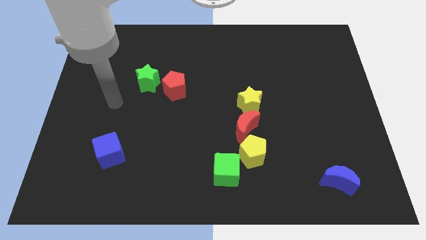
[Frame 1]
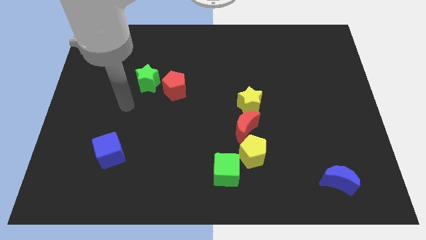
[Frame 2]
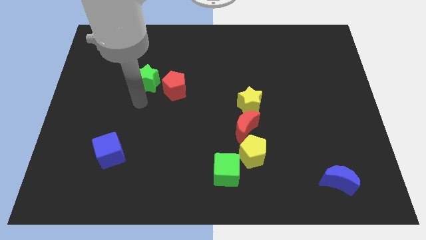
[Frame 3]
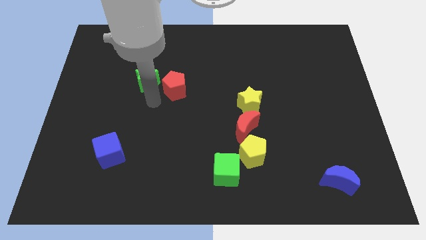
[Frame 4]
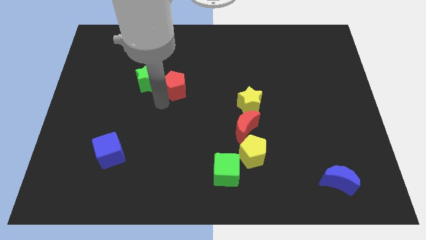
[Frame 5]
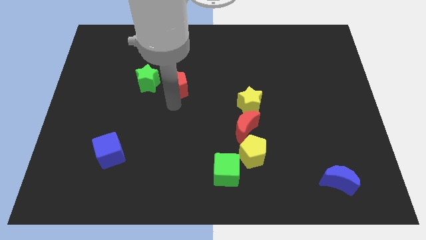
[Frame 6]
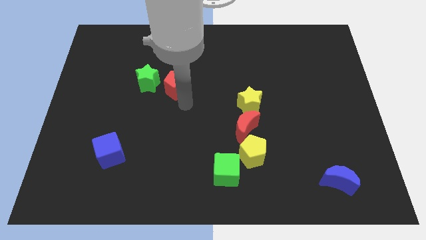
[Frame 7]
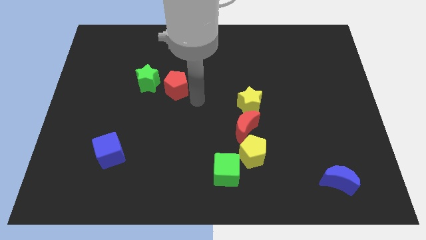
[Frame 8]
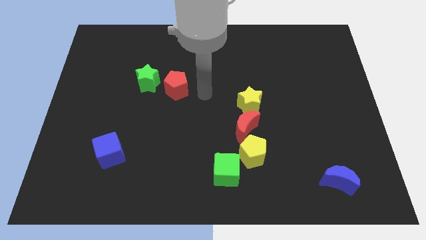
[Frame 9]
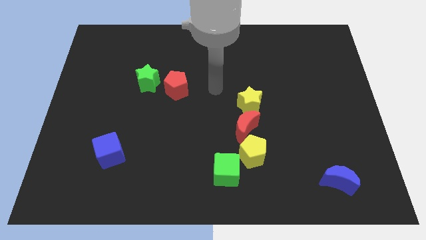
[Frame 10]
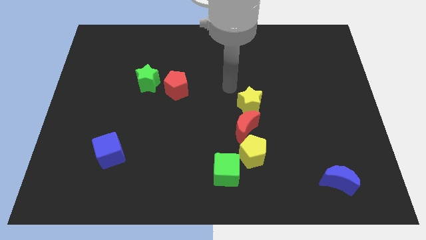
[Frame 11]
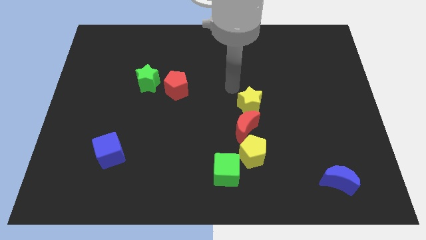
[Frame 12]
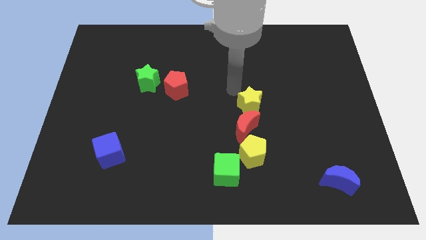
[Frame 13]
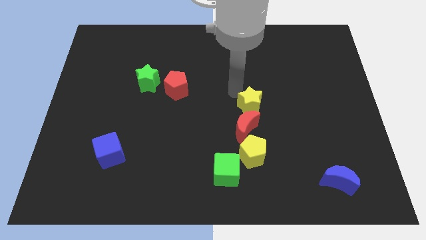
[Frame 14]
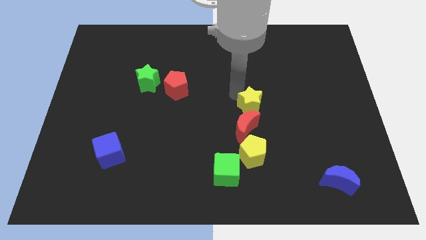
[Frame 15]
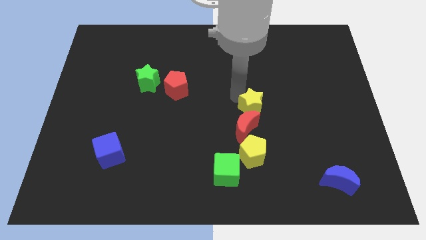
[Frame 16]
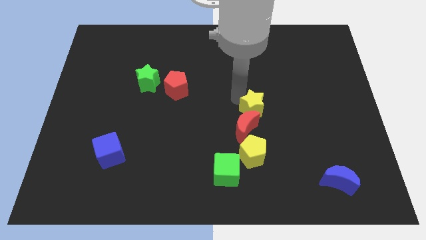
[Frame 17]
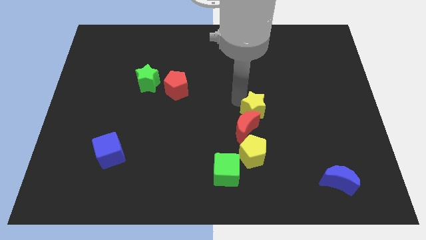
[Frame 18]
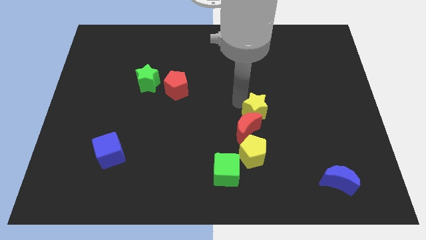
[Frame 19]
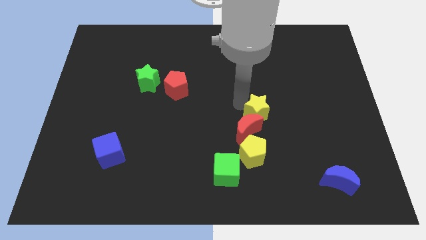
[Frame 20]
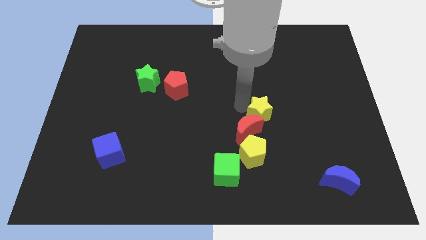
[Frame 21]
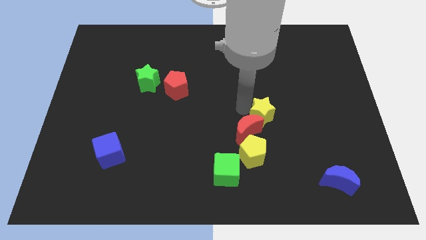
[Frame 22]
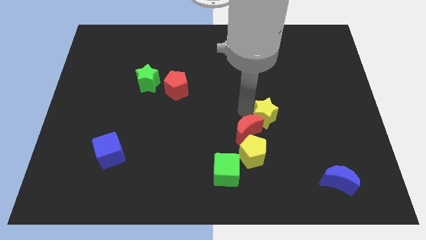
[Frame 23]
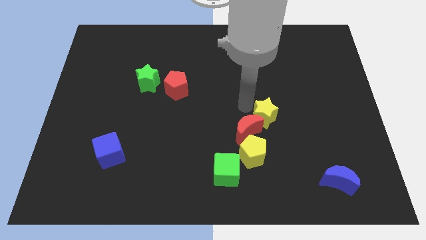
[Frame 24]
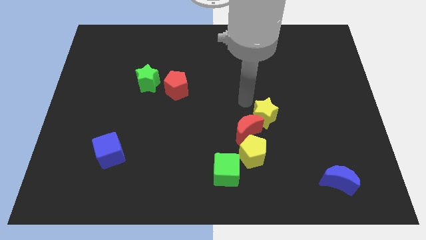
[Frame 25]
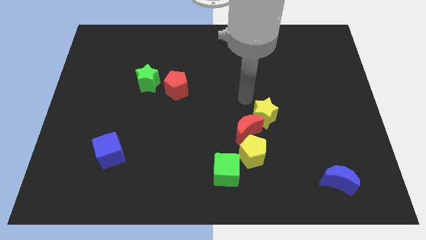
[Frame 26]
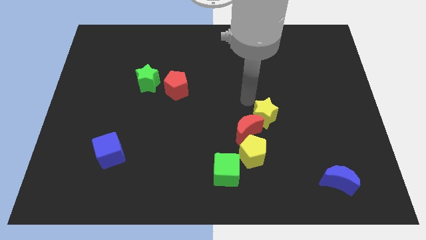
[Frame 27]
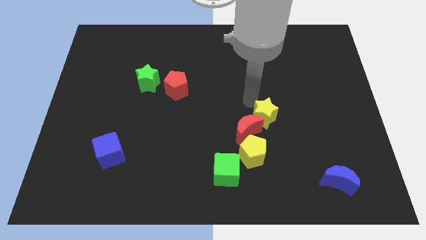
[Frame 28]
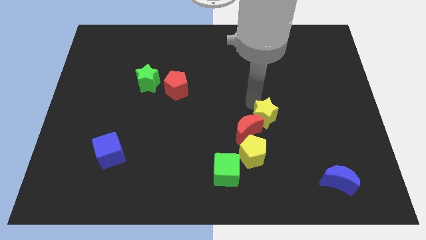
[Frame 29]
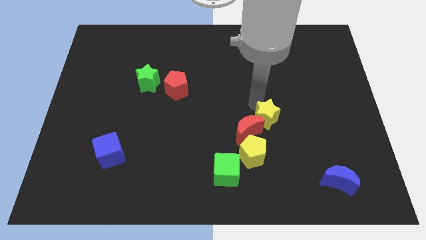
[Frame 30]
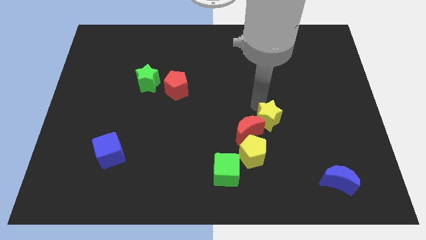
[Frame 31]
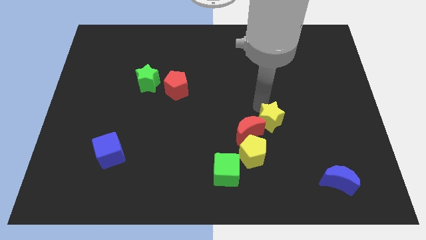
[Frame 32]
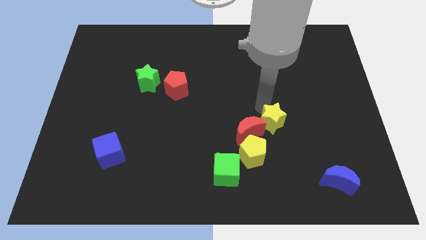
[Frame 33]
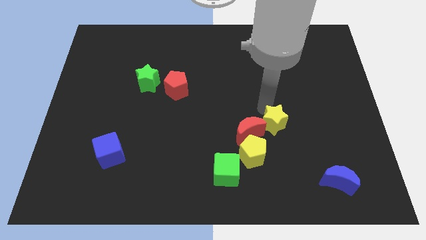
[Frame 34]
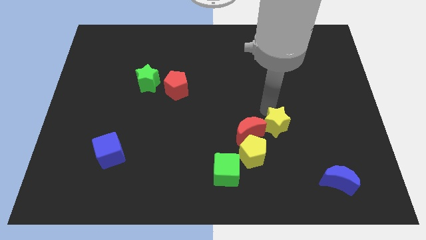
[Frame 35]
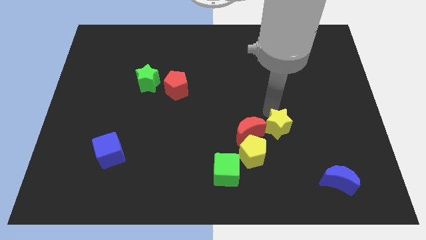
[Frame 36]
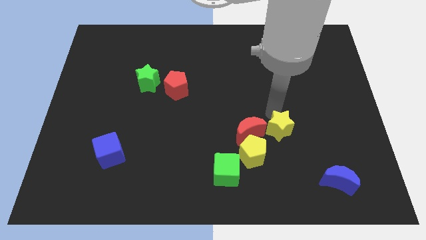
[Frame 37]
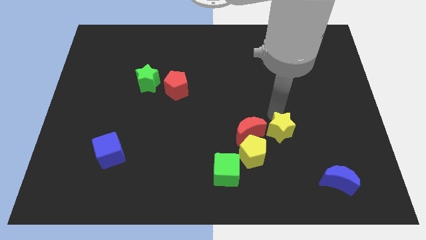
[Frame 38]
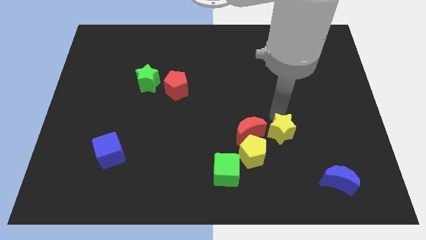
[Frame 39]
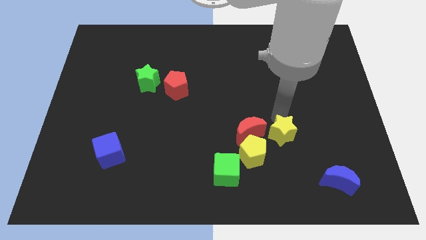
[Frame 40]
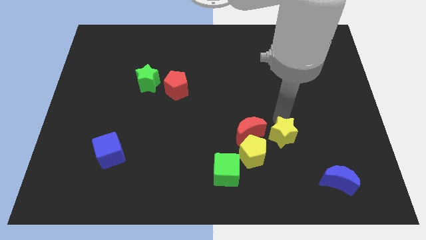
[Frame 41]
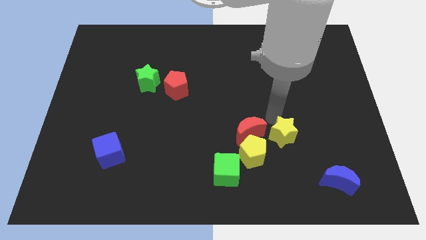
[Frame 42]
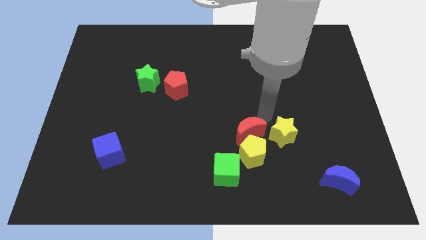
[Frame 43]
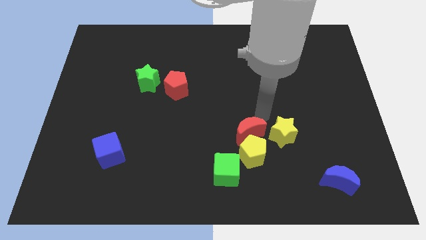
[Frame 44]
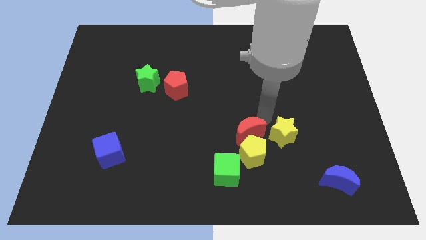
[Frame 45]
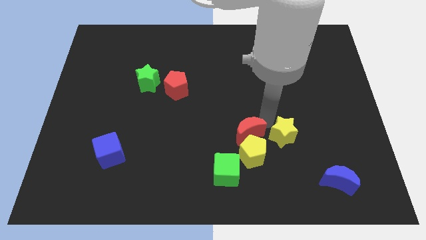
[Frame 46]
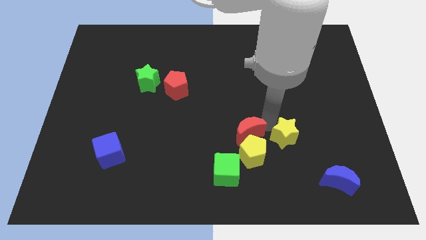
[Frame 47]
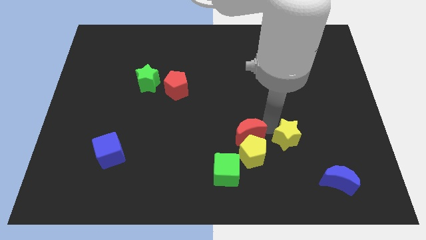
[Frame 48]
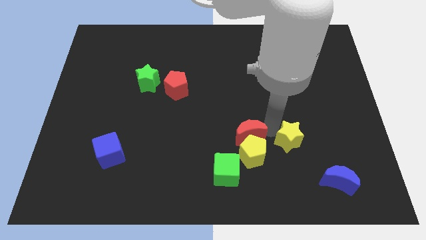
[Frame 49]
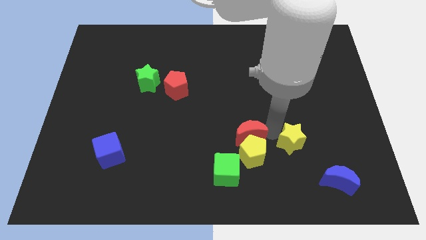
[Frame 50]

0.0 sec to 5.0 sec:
move the yellow star to the top left side of the blue moon

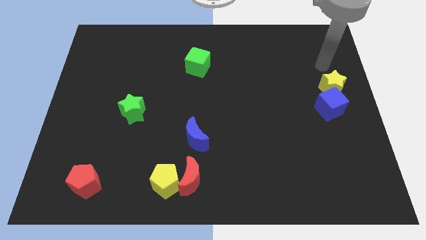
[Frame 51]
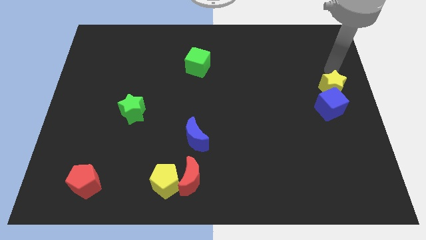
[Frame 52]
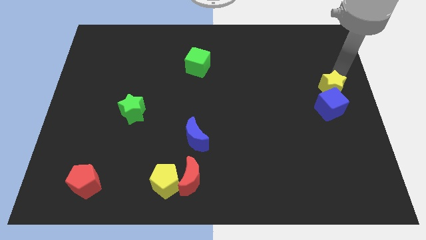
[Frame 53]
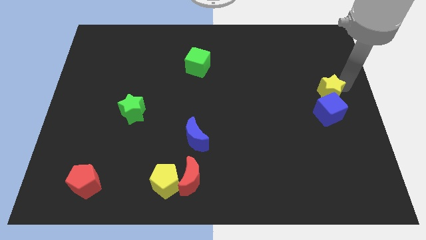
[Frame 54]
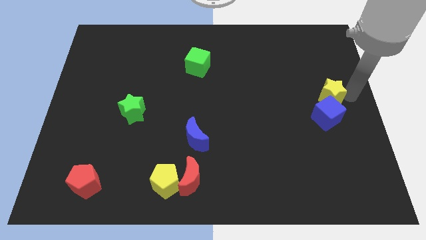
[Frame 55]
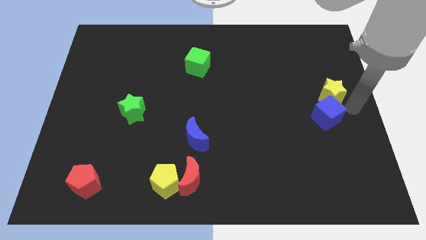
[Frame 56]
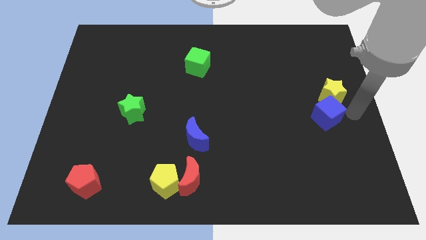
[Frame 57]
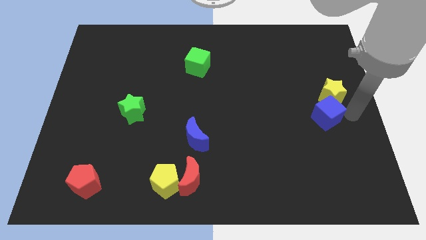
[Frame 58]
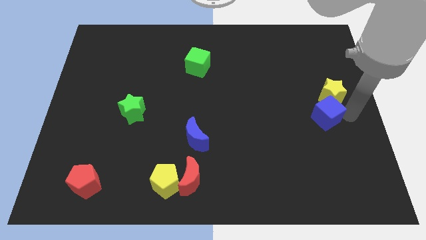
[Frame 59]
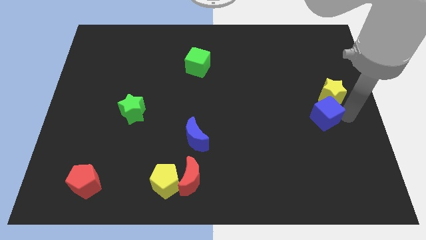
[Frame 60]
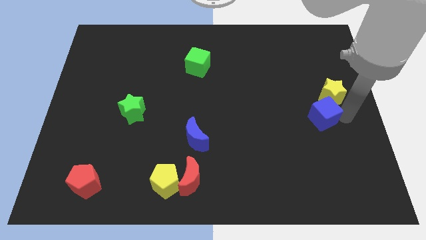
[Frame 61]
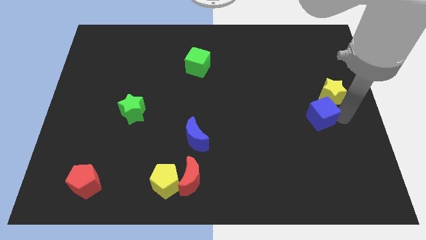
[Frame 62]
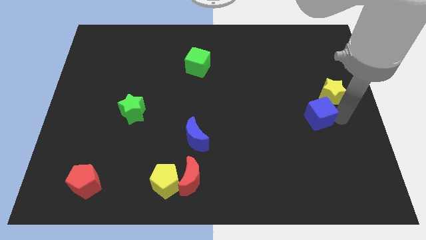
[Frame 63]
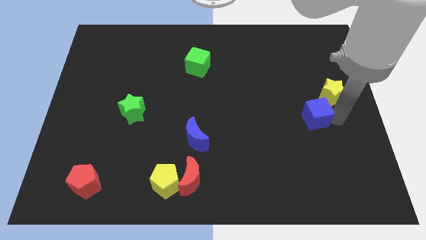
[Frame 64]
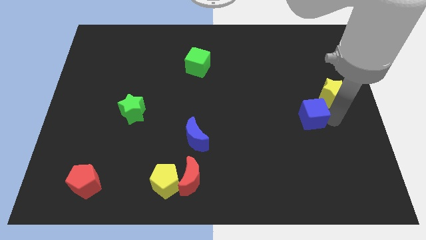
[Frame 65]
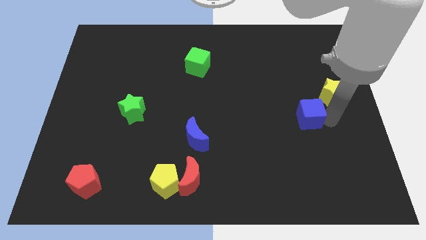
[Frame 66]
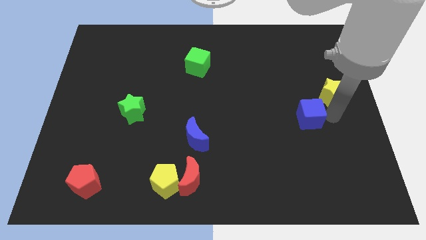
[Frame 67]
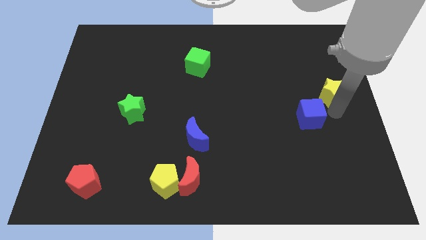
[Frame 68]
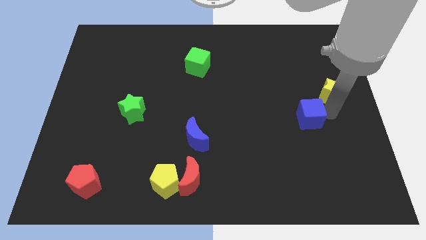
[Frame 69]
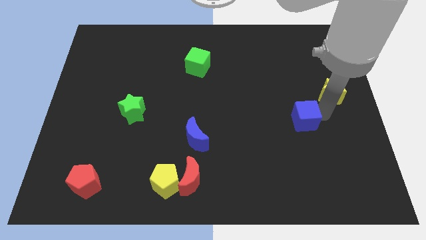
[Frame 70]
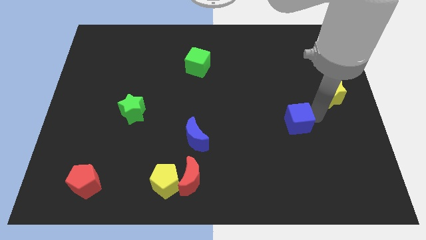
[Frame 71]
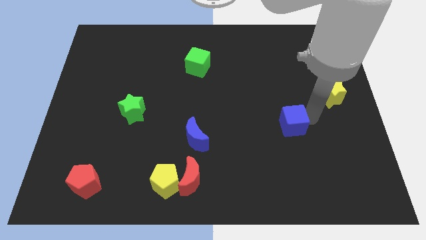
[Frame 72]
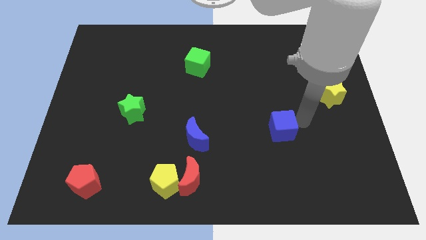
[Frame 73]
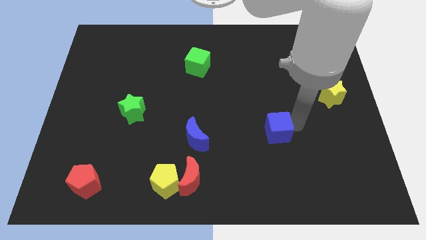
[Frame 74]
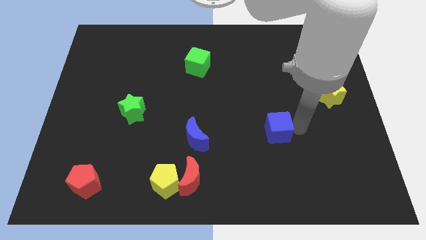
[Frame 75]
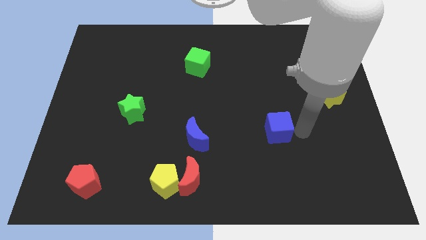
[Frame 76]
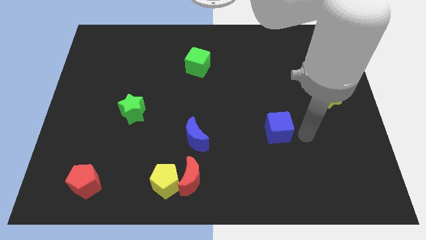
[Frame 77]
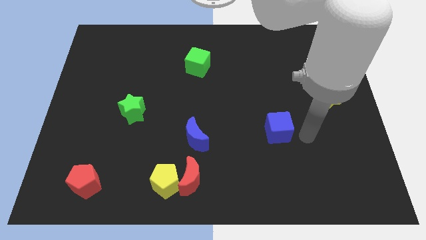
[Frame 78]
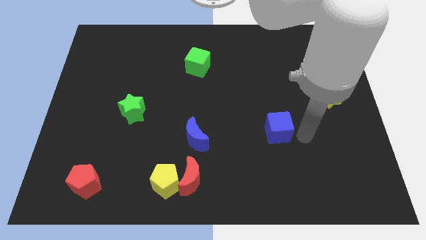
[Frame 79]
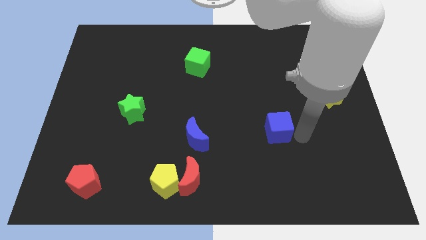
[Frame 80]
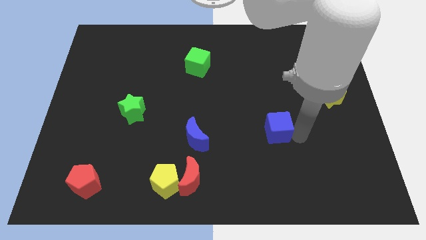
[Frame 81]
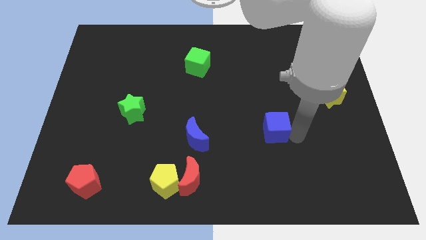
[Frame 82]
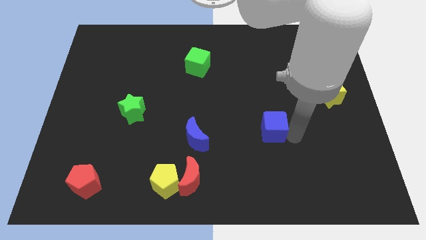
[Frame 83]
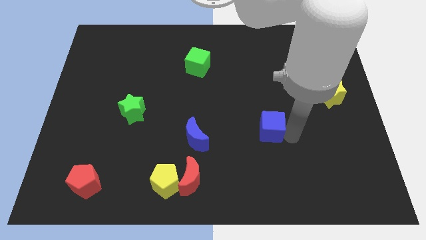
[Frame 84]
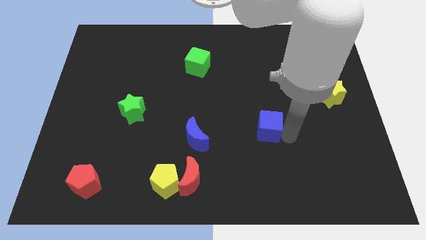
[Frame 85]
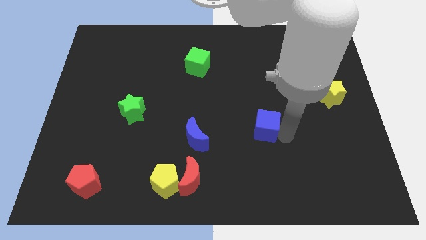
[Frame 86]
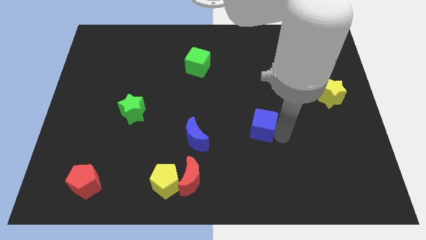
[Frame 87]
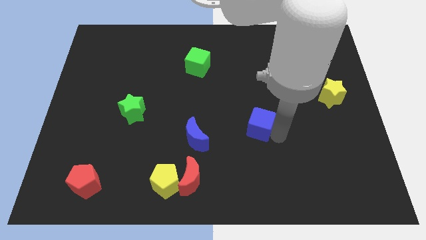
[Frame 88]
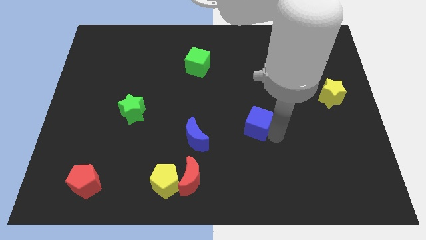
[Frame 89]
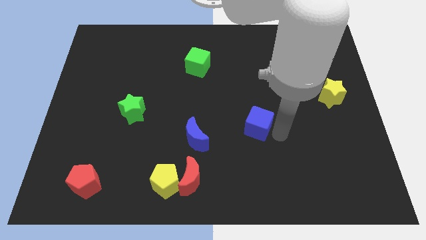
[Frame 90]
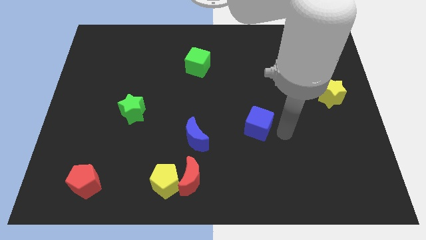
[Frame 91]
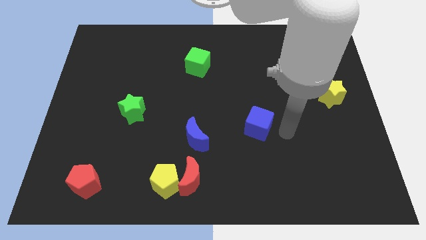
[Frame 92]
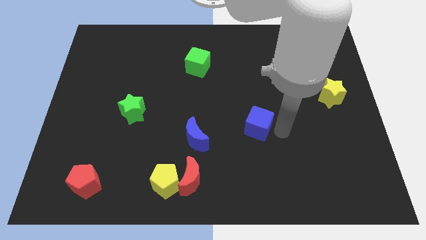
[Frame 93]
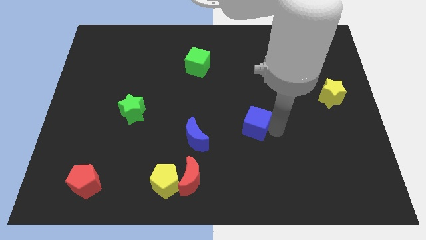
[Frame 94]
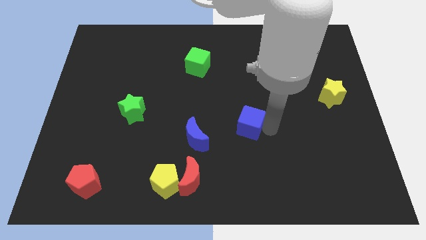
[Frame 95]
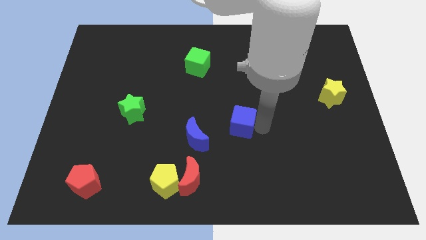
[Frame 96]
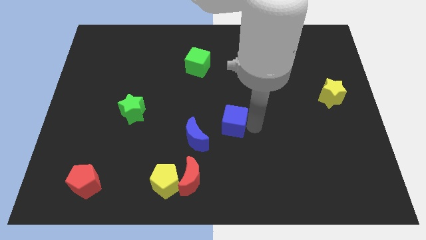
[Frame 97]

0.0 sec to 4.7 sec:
put the blue cube diagonally up and to the right of the blue moon
